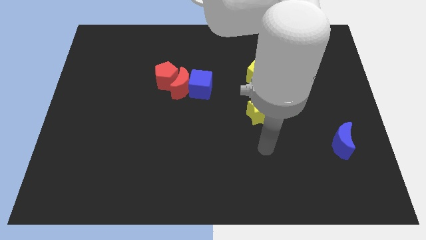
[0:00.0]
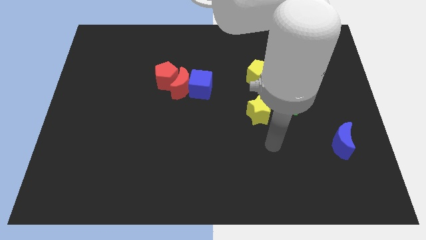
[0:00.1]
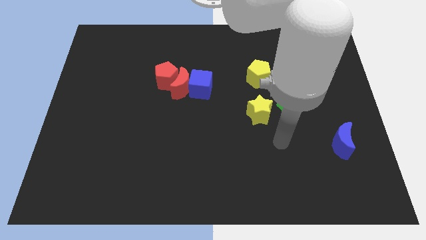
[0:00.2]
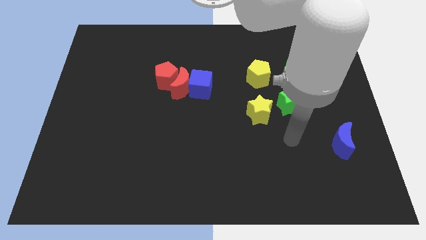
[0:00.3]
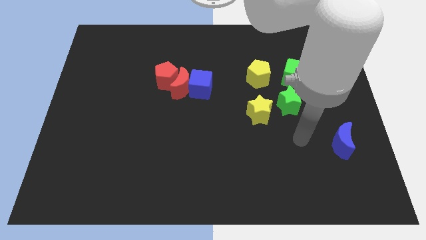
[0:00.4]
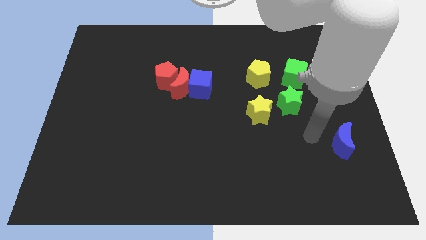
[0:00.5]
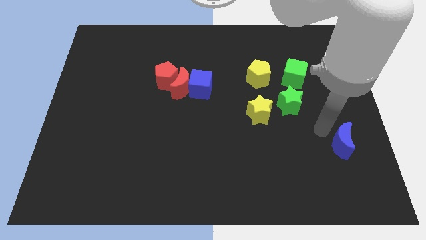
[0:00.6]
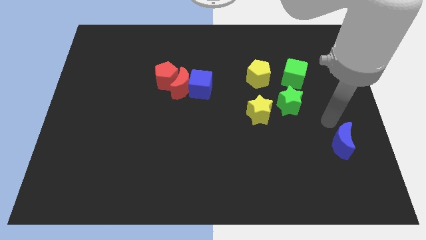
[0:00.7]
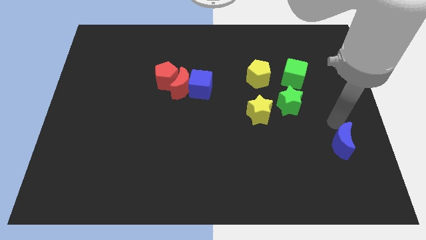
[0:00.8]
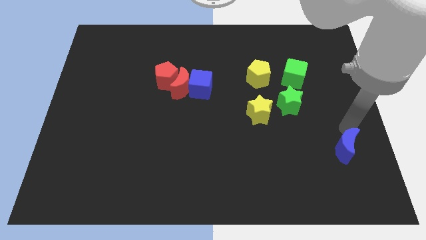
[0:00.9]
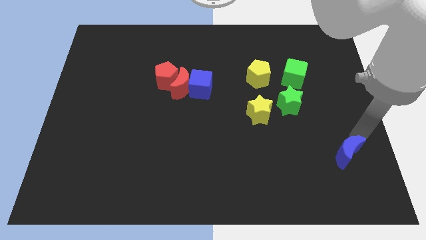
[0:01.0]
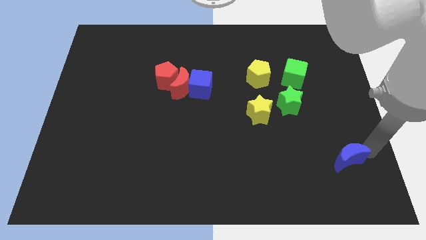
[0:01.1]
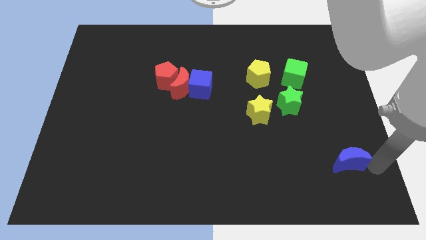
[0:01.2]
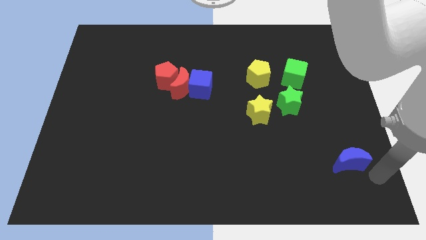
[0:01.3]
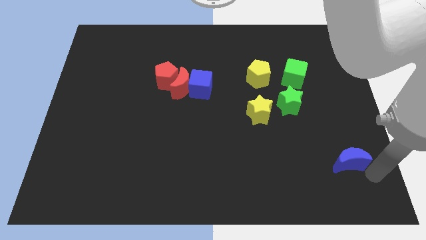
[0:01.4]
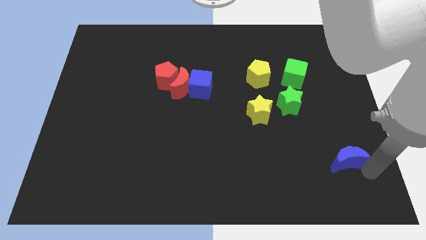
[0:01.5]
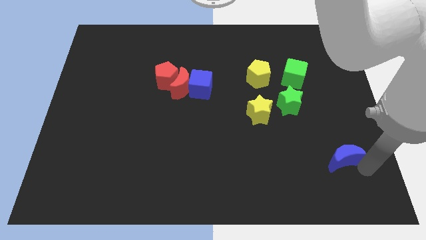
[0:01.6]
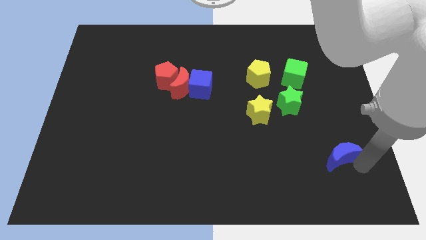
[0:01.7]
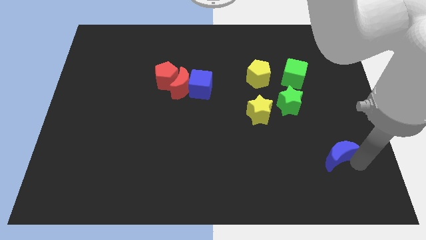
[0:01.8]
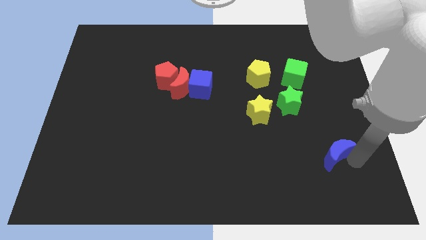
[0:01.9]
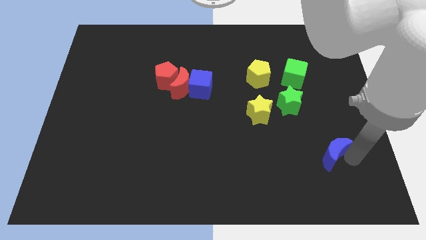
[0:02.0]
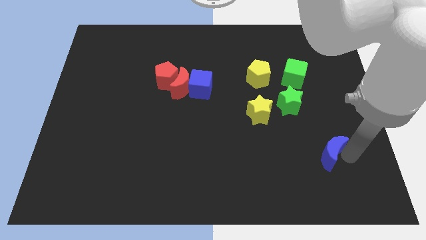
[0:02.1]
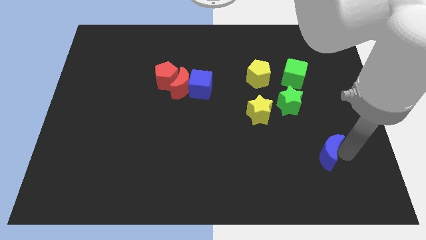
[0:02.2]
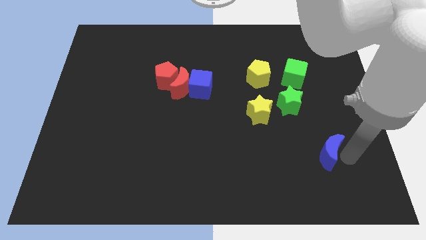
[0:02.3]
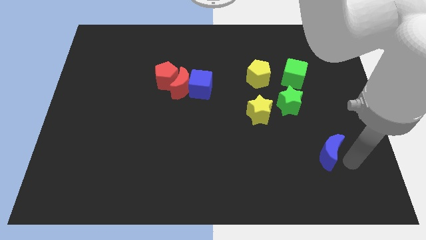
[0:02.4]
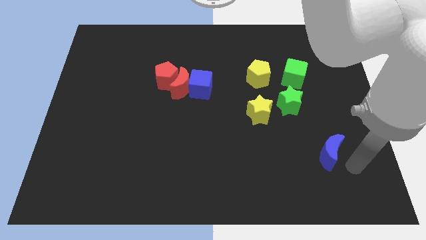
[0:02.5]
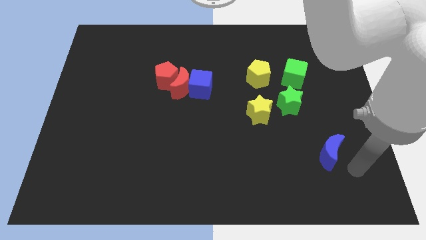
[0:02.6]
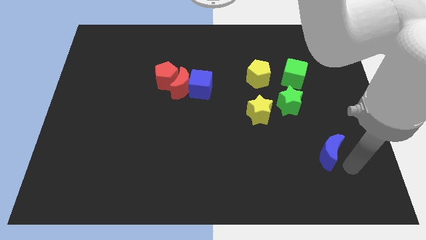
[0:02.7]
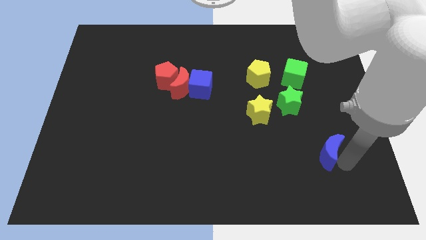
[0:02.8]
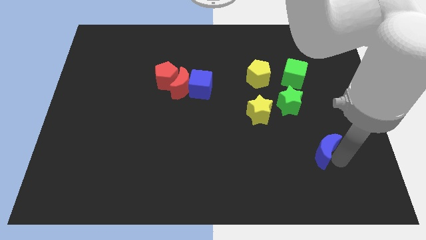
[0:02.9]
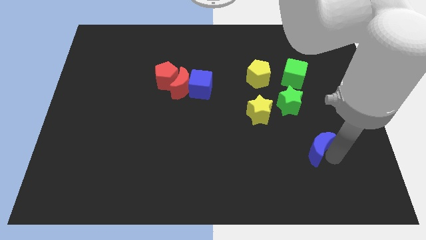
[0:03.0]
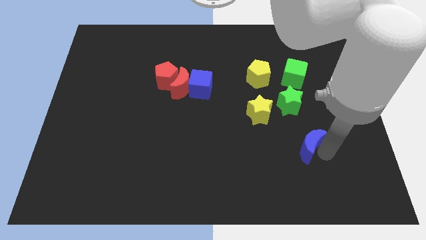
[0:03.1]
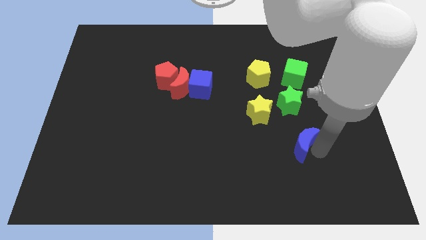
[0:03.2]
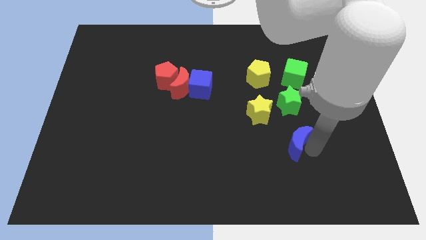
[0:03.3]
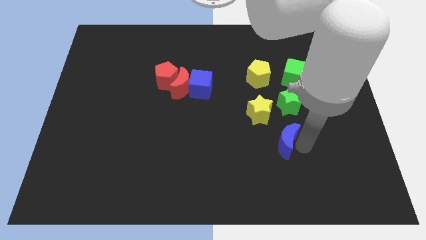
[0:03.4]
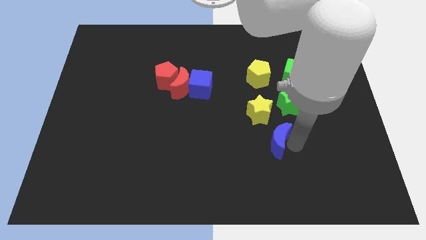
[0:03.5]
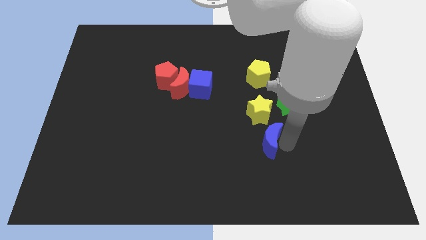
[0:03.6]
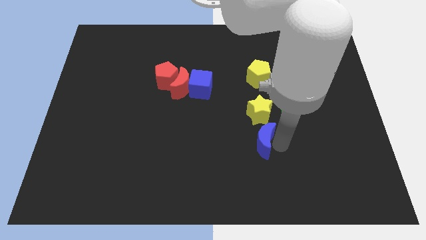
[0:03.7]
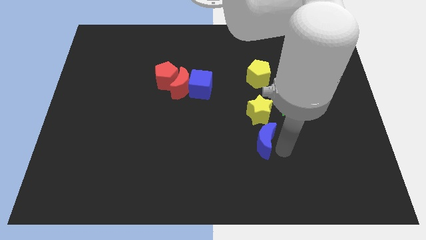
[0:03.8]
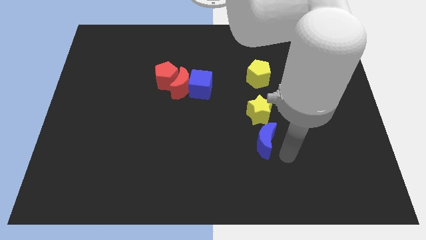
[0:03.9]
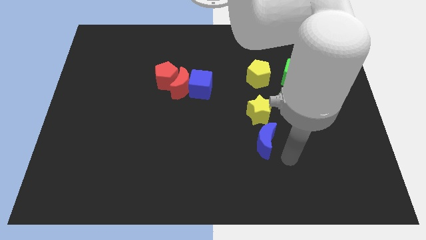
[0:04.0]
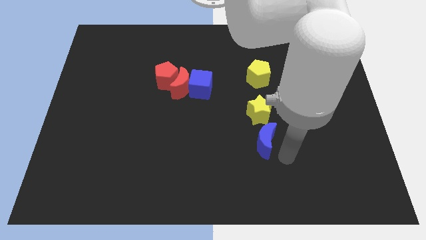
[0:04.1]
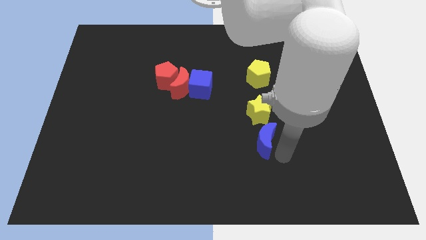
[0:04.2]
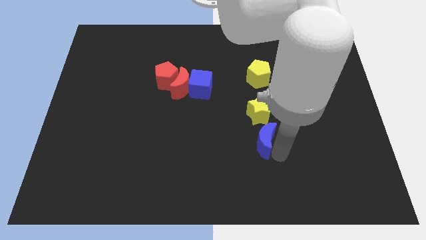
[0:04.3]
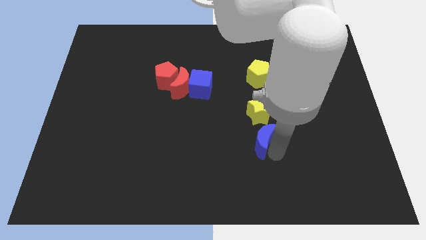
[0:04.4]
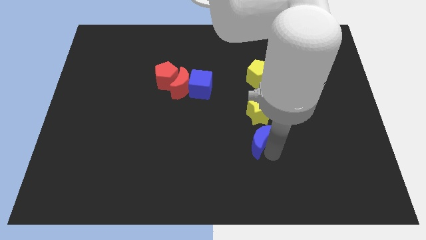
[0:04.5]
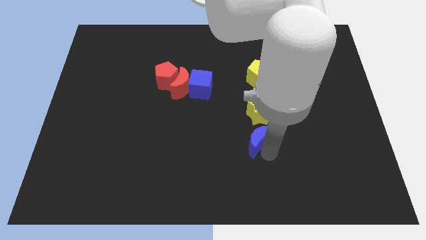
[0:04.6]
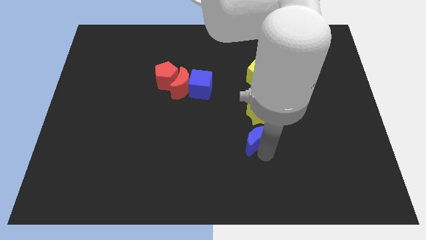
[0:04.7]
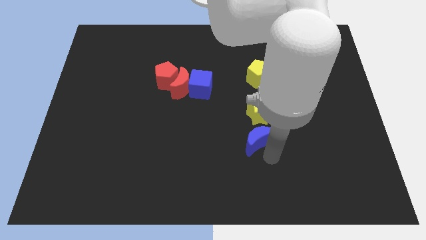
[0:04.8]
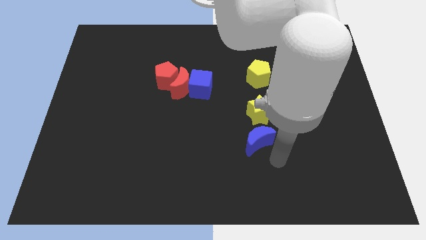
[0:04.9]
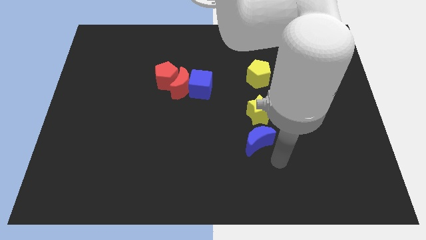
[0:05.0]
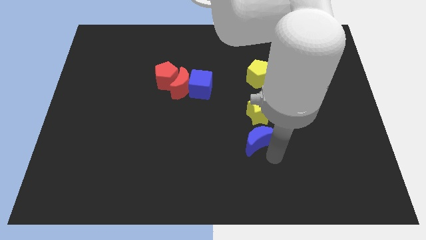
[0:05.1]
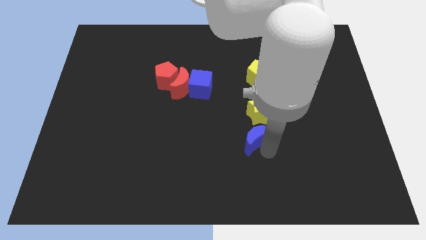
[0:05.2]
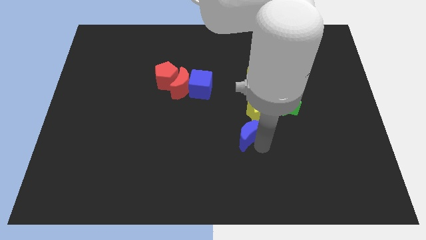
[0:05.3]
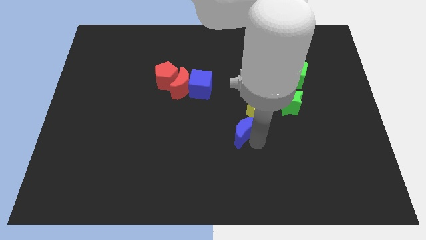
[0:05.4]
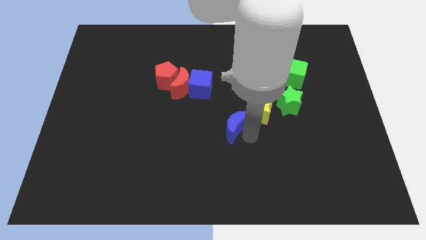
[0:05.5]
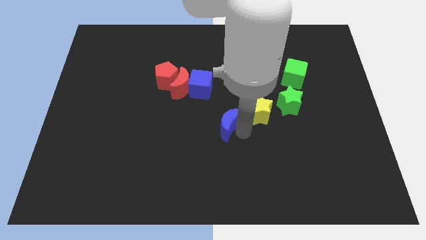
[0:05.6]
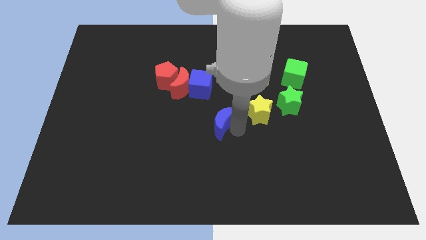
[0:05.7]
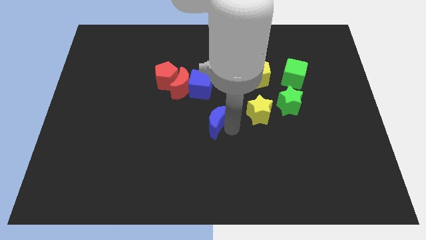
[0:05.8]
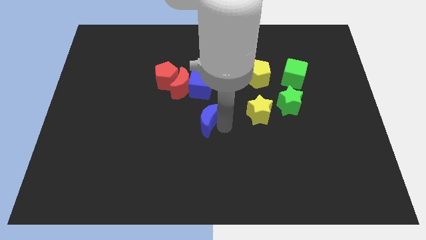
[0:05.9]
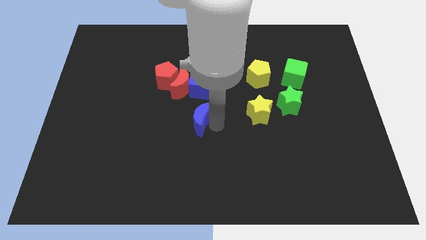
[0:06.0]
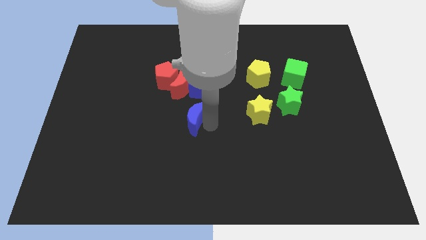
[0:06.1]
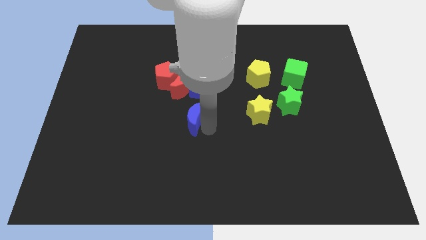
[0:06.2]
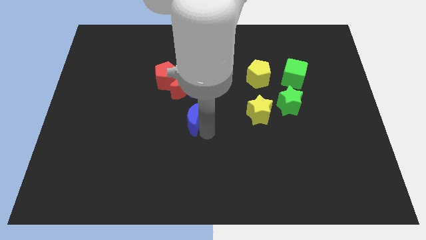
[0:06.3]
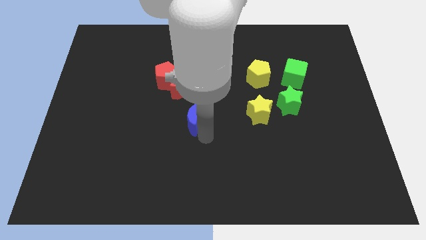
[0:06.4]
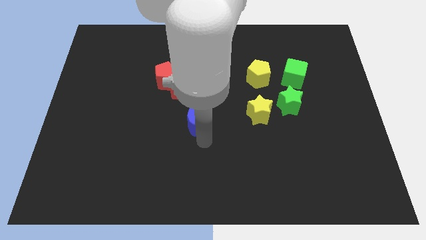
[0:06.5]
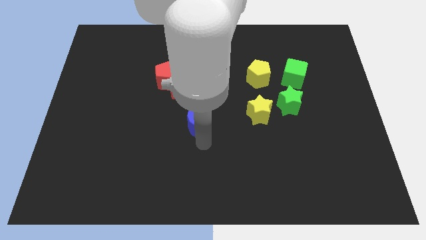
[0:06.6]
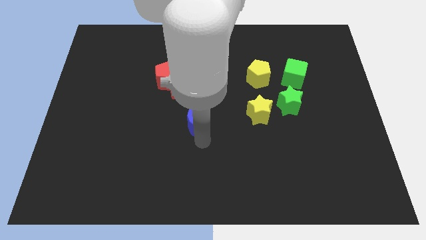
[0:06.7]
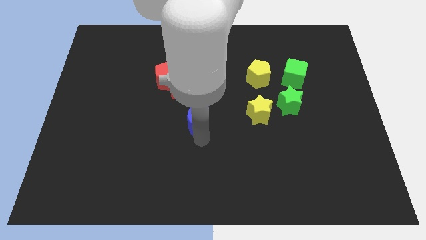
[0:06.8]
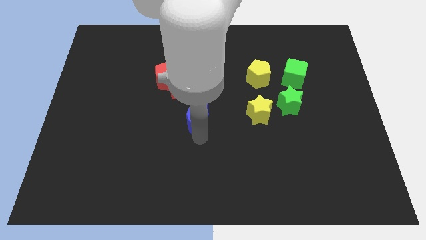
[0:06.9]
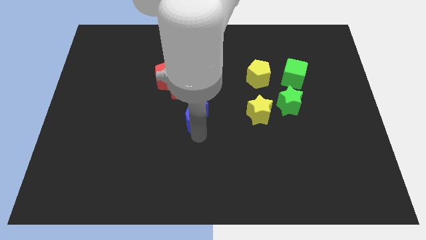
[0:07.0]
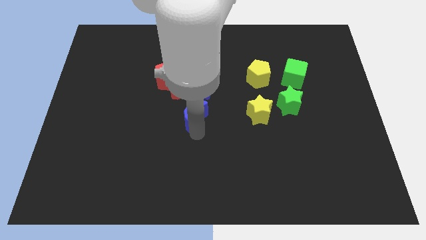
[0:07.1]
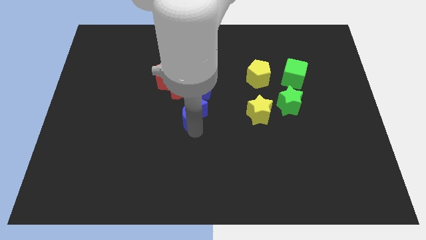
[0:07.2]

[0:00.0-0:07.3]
put the blue moon to the bottom left side of the blue cube
